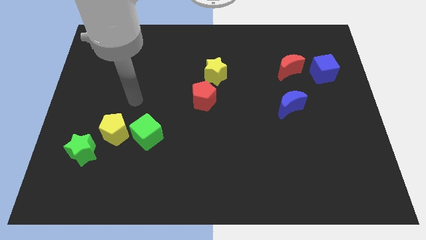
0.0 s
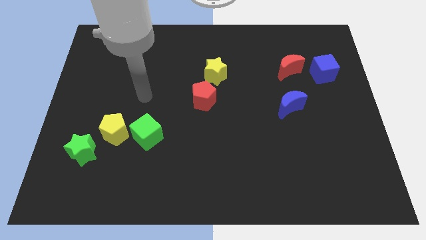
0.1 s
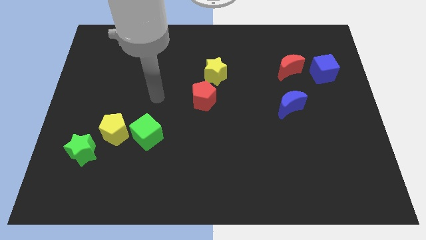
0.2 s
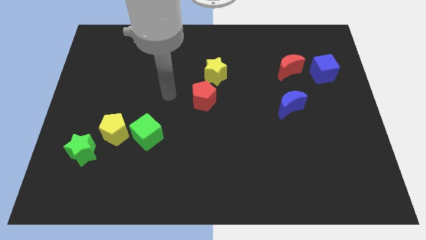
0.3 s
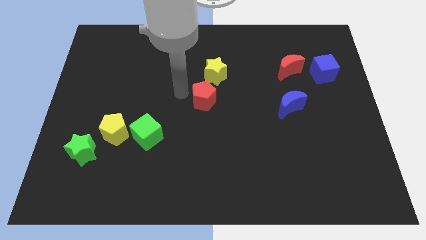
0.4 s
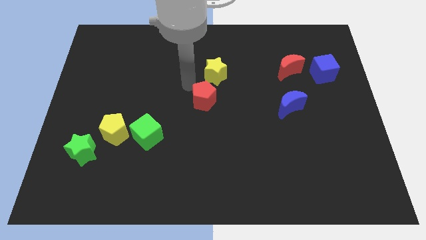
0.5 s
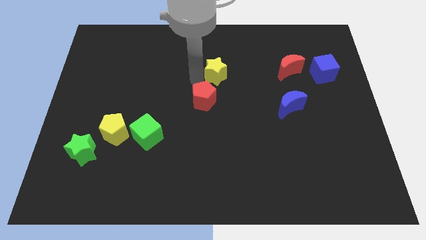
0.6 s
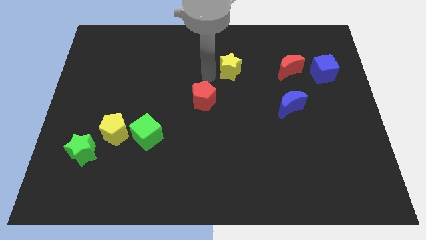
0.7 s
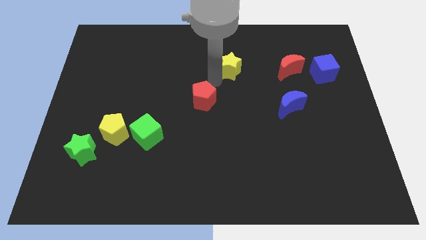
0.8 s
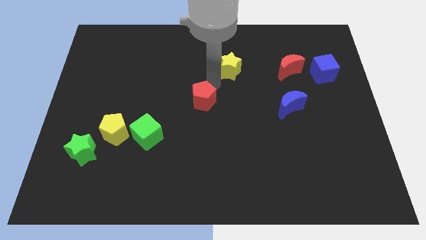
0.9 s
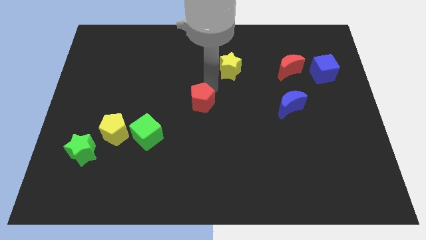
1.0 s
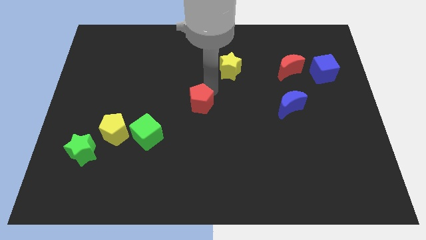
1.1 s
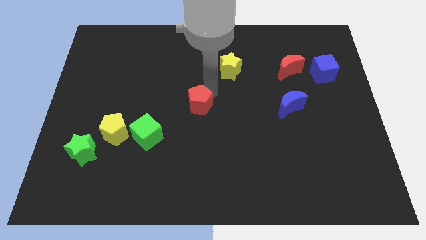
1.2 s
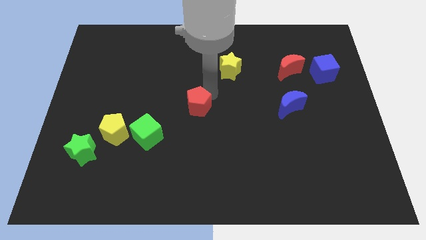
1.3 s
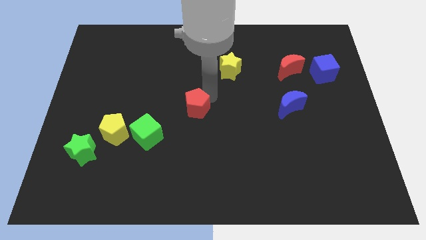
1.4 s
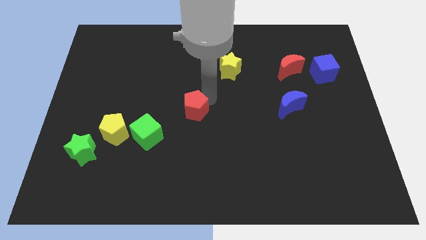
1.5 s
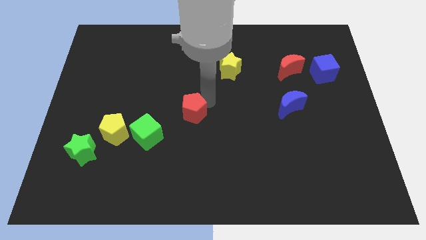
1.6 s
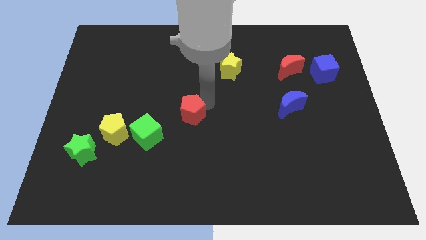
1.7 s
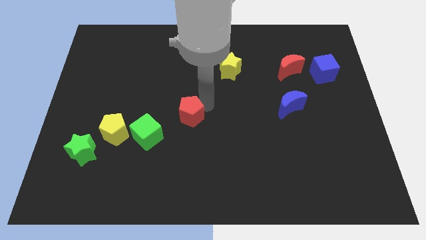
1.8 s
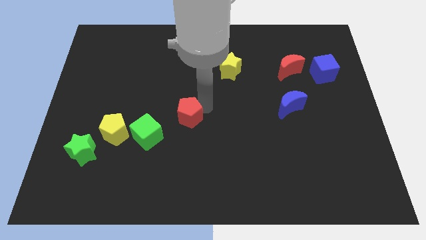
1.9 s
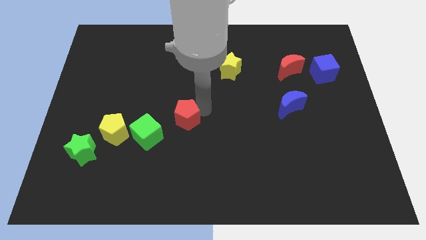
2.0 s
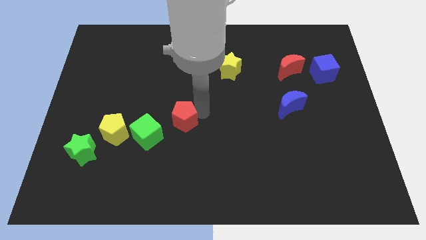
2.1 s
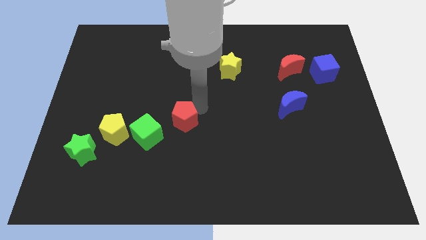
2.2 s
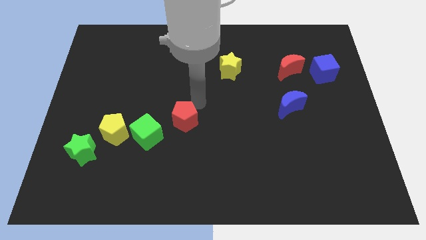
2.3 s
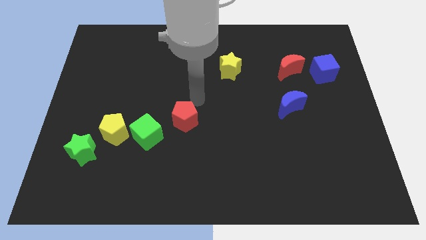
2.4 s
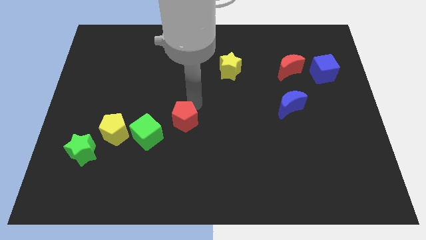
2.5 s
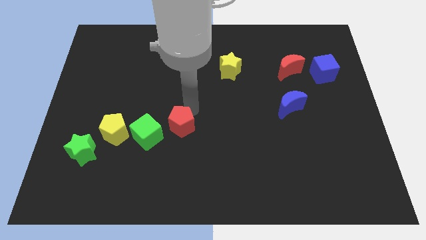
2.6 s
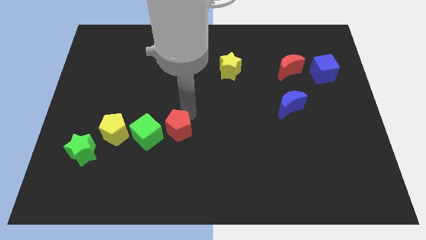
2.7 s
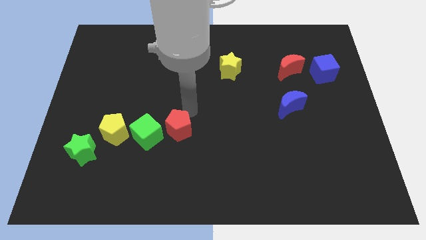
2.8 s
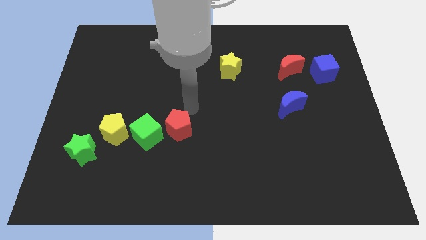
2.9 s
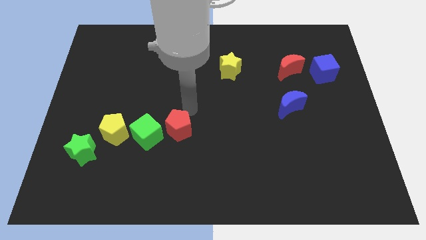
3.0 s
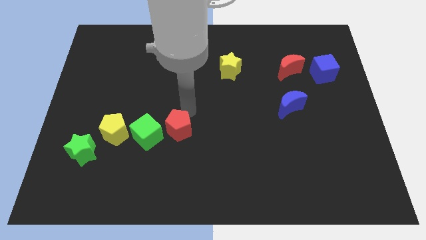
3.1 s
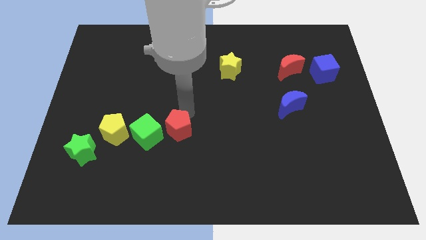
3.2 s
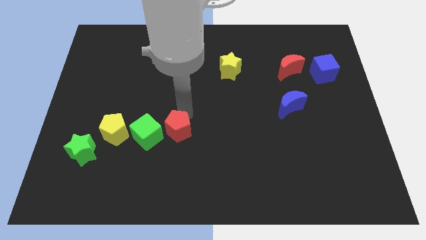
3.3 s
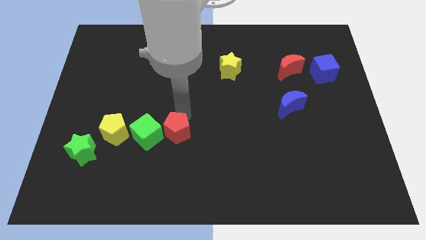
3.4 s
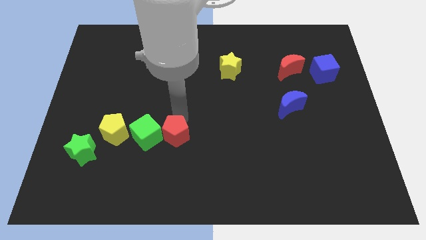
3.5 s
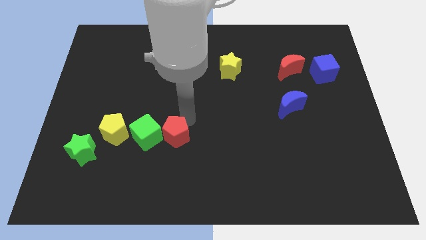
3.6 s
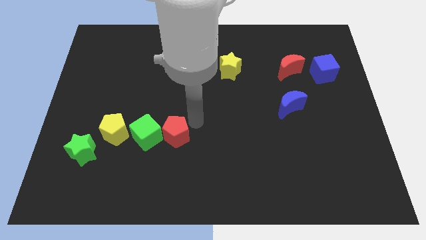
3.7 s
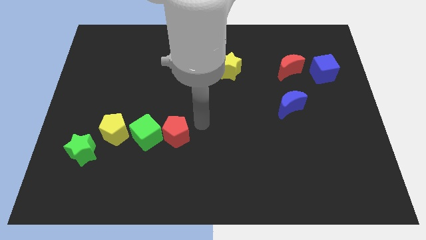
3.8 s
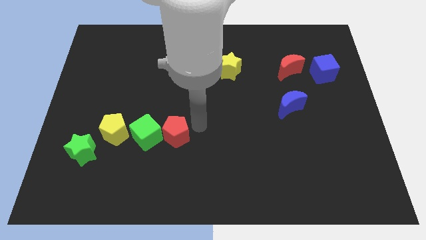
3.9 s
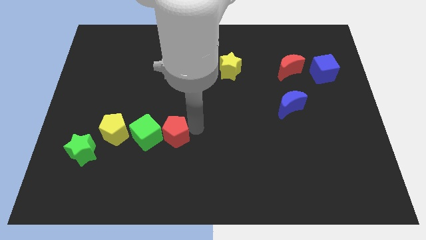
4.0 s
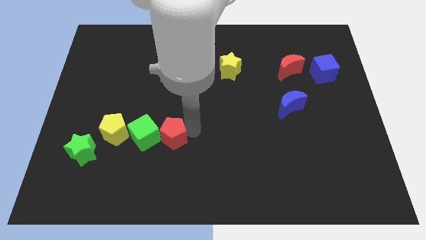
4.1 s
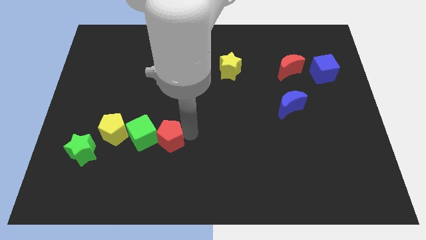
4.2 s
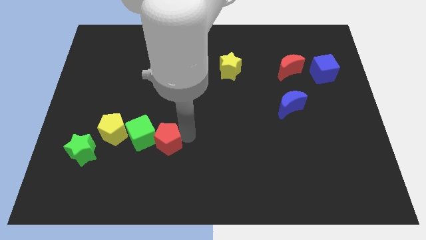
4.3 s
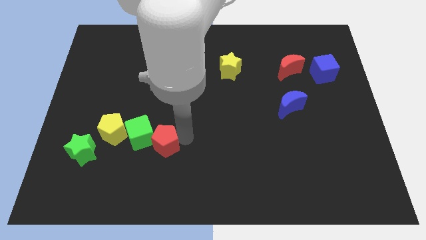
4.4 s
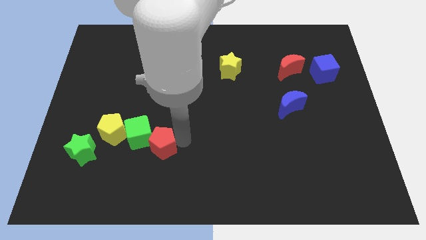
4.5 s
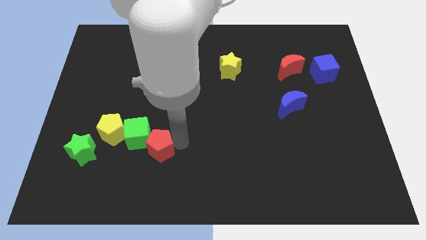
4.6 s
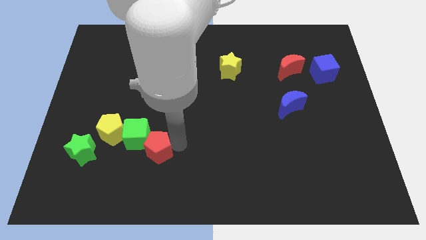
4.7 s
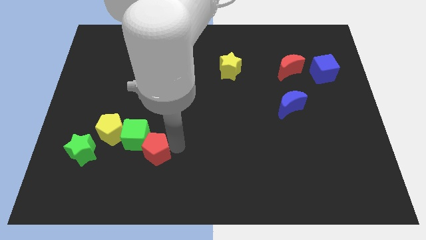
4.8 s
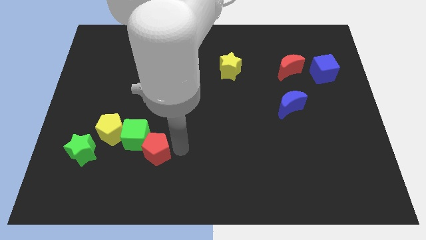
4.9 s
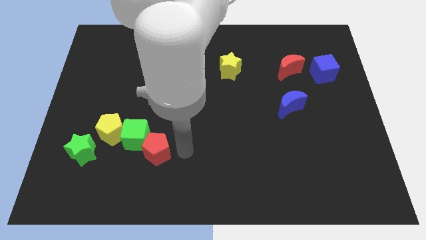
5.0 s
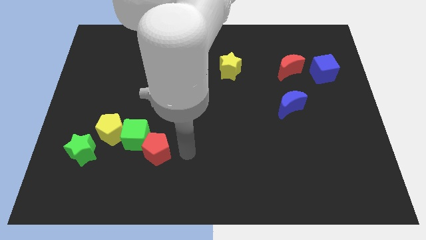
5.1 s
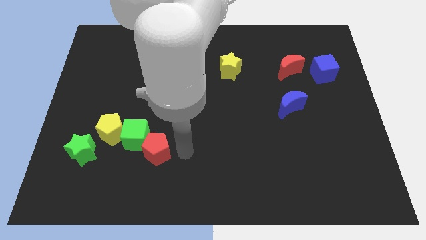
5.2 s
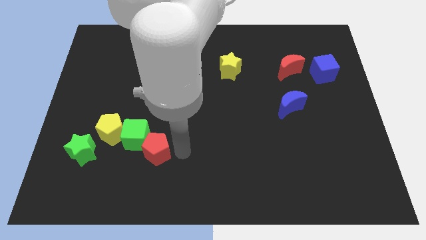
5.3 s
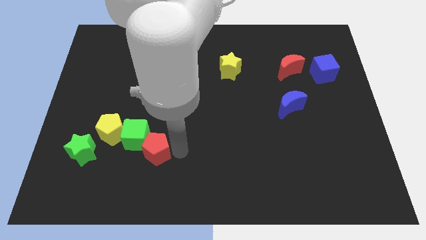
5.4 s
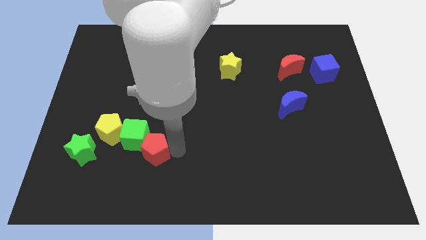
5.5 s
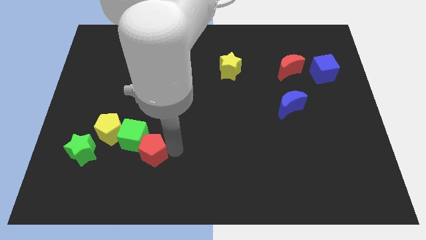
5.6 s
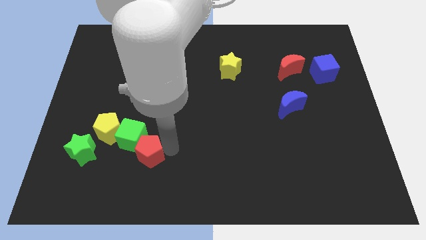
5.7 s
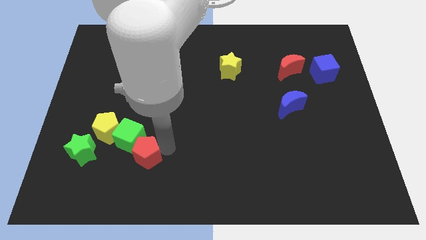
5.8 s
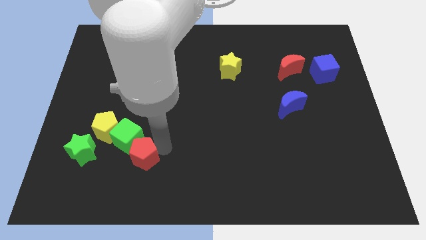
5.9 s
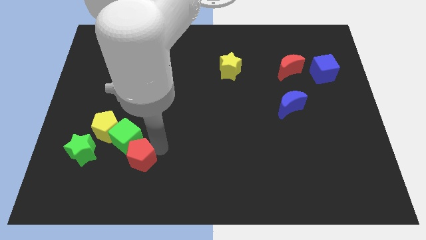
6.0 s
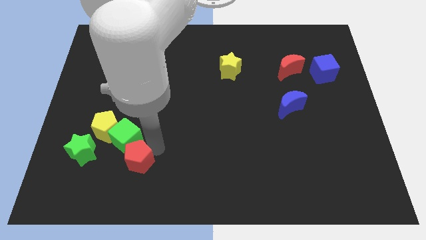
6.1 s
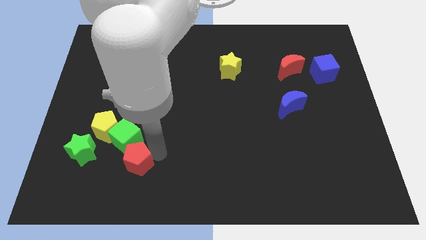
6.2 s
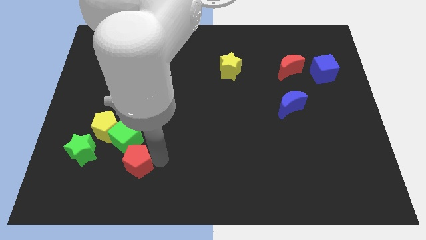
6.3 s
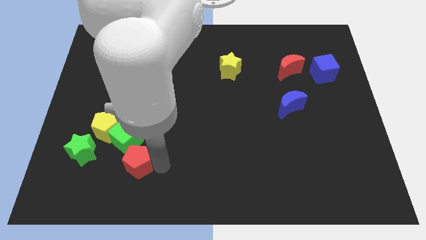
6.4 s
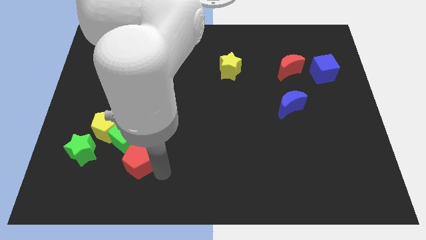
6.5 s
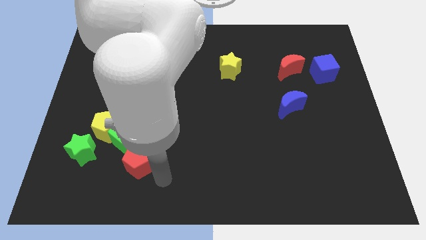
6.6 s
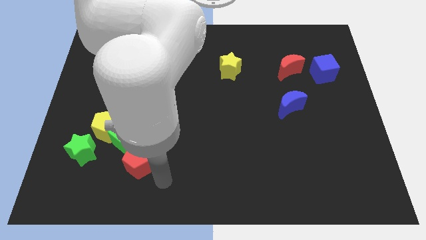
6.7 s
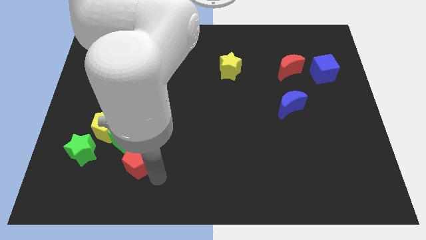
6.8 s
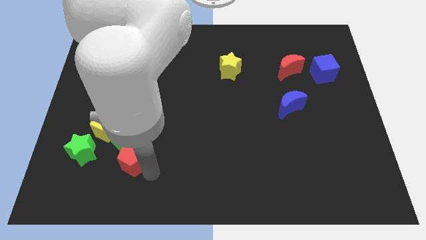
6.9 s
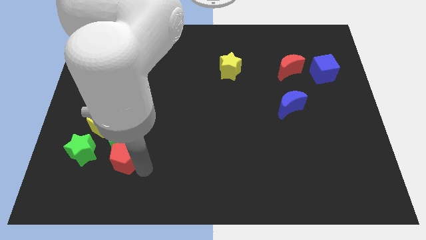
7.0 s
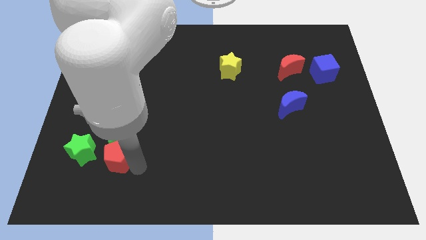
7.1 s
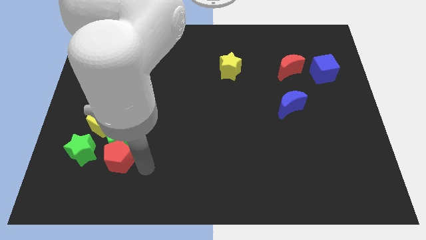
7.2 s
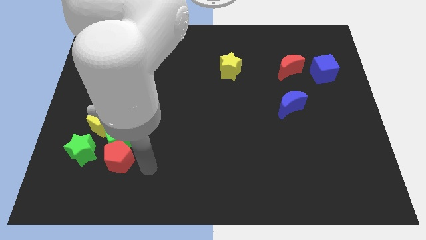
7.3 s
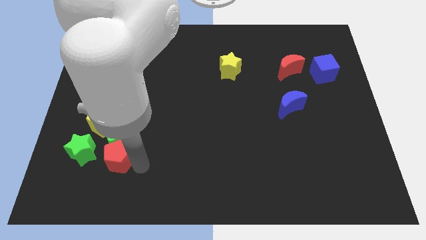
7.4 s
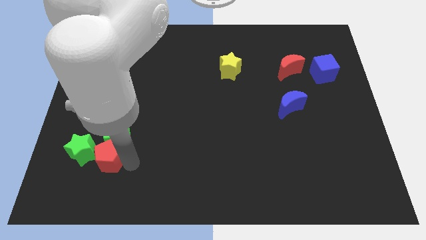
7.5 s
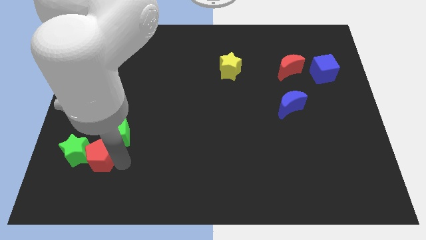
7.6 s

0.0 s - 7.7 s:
move the red pentagon next to the green star
